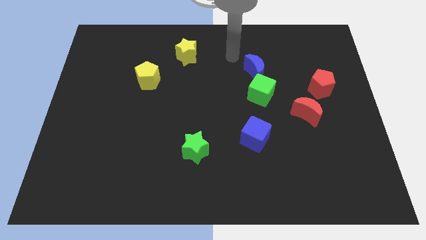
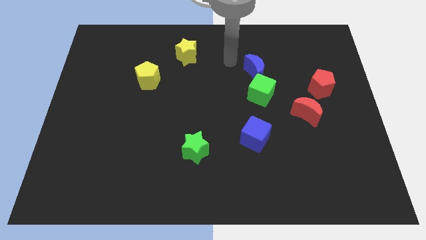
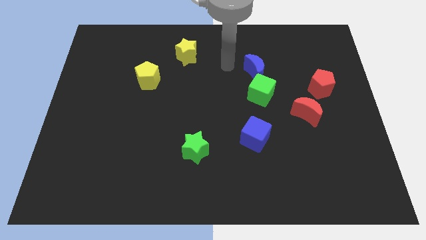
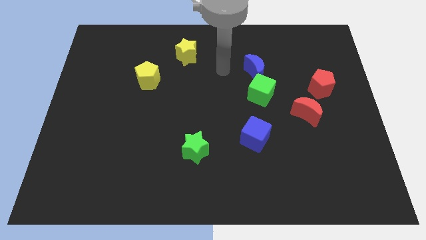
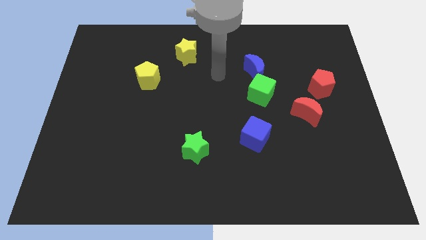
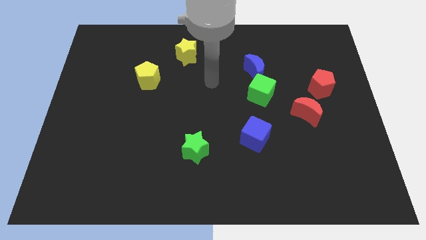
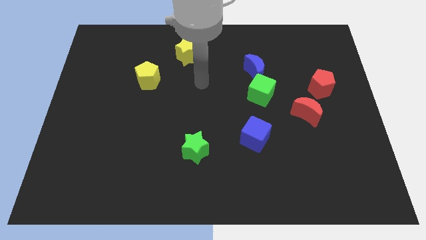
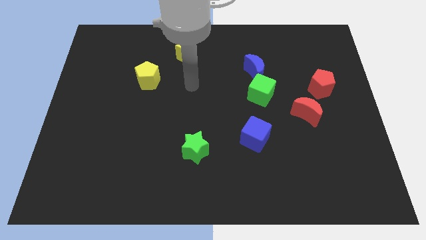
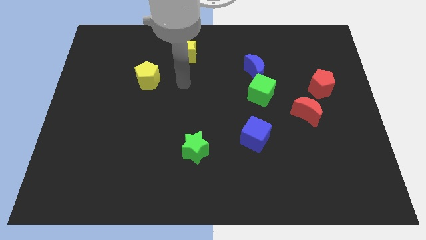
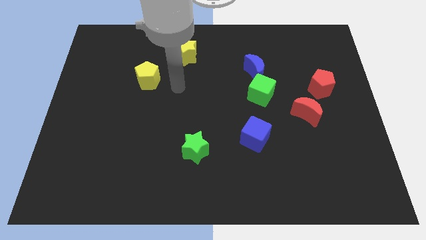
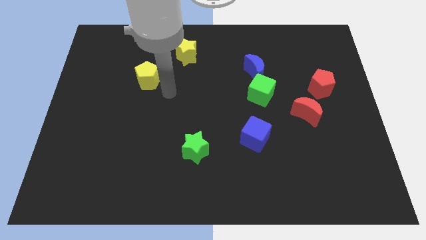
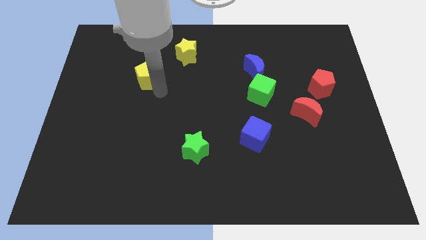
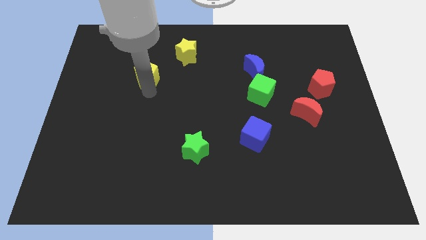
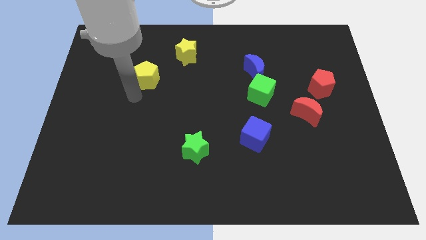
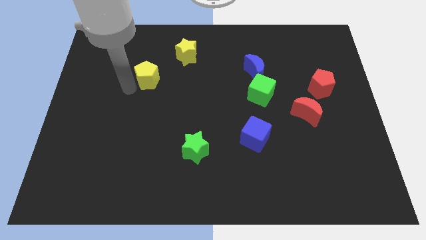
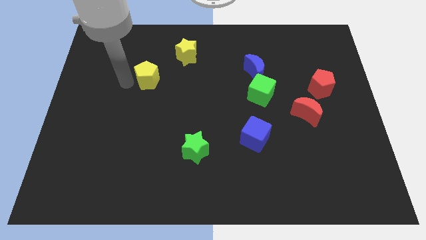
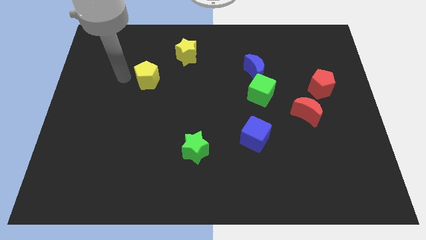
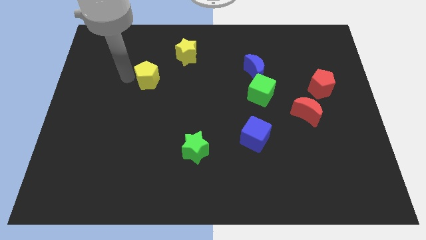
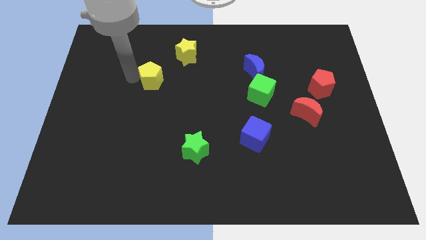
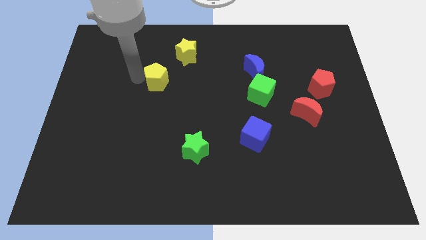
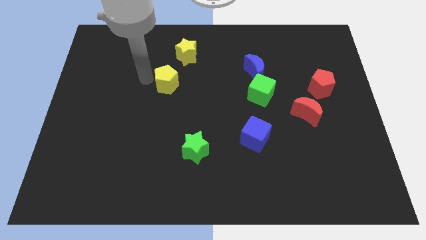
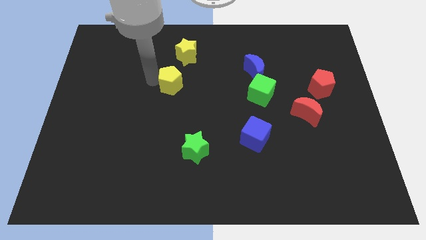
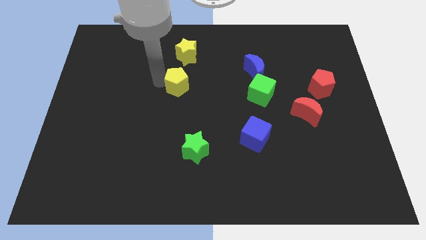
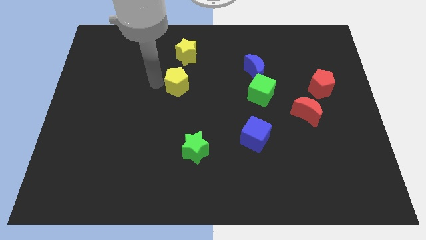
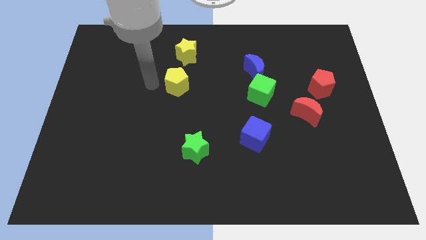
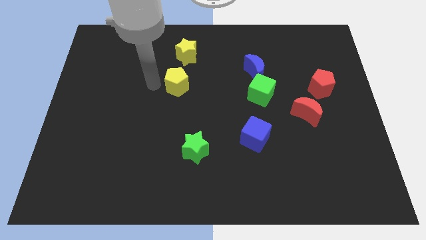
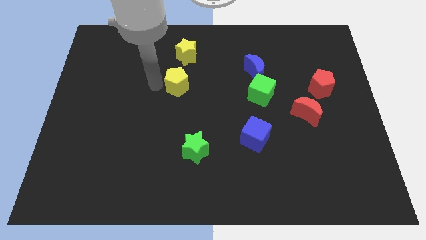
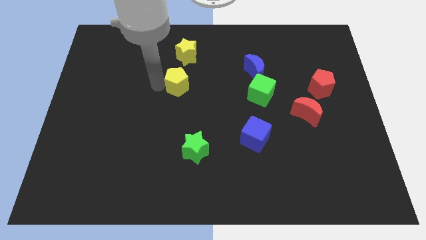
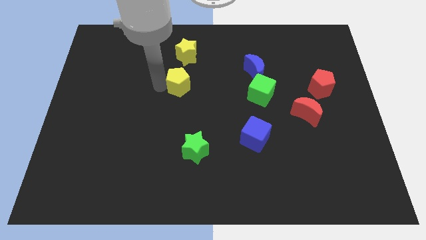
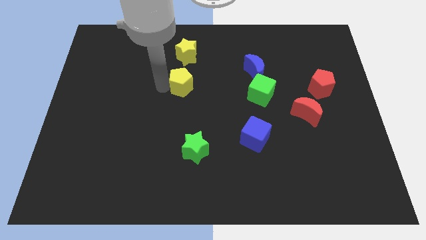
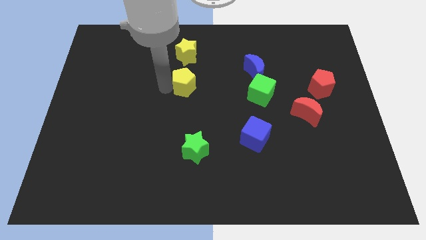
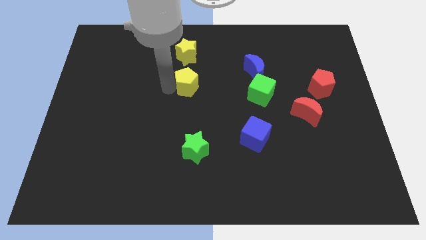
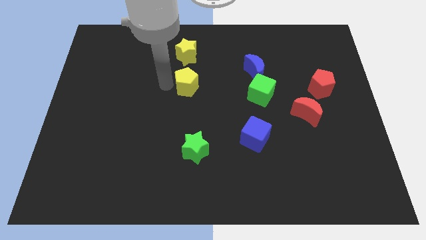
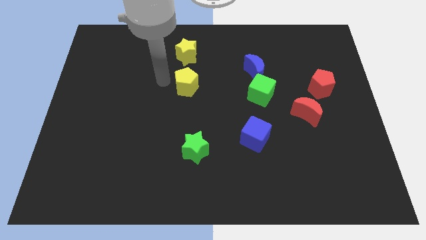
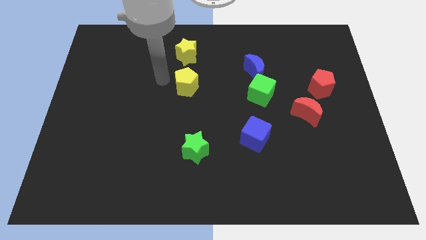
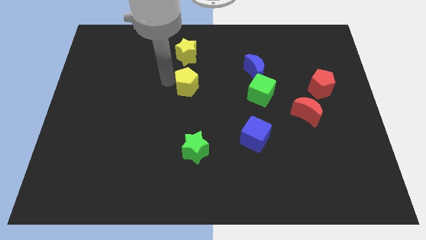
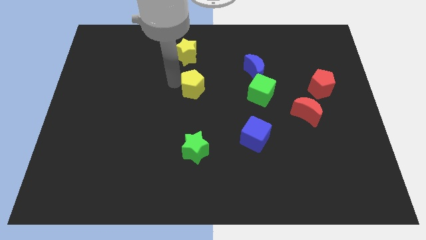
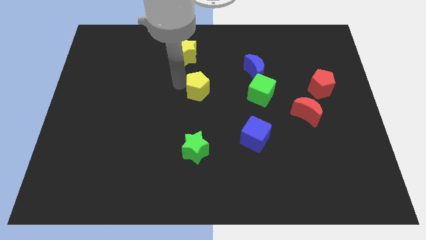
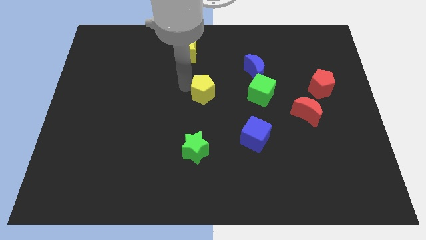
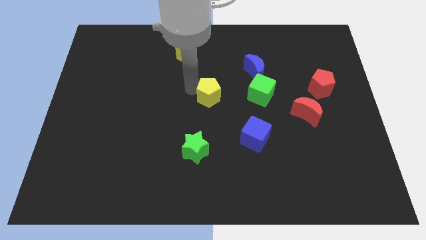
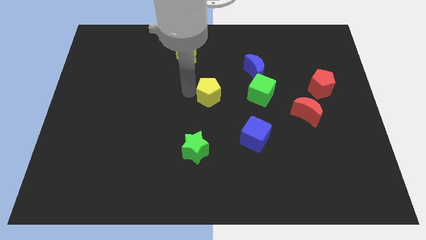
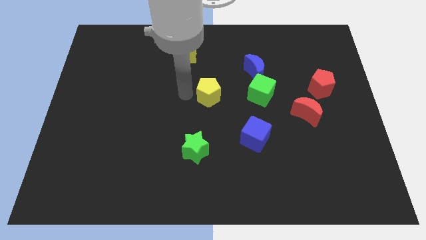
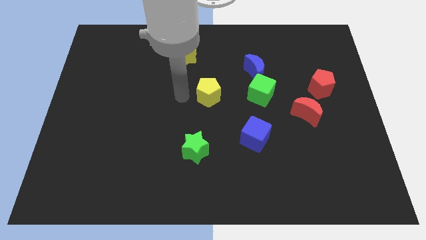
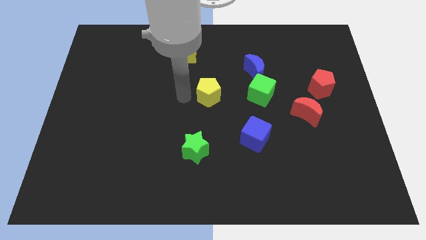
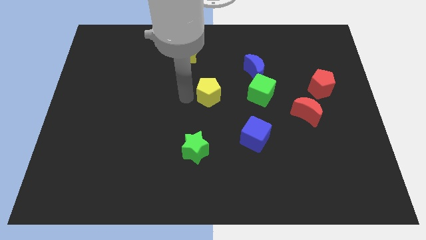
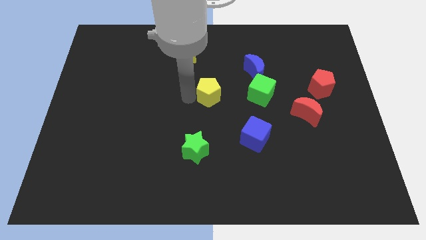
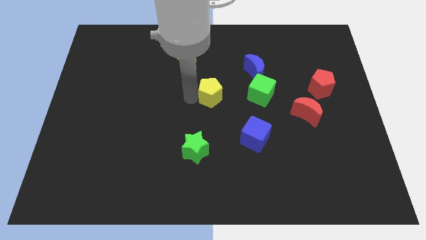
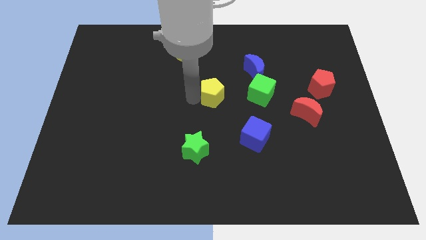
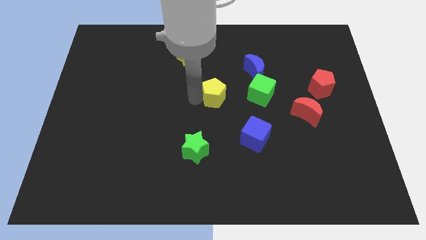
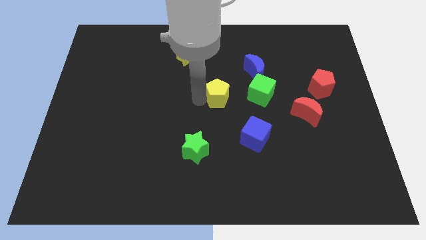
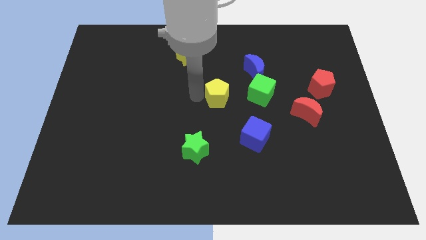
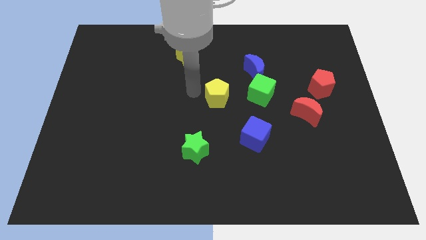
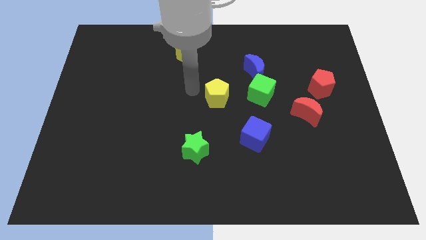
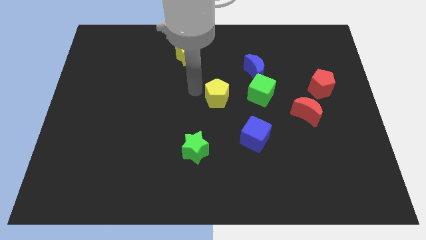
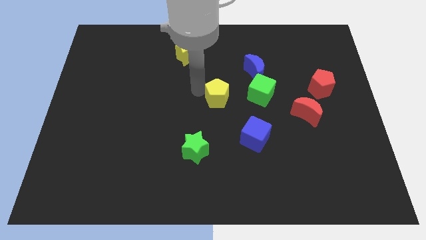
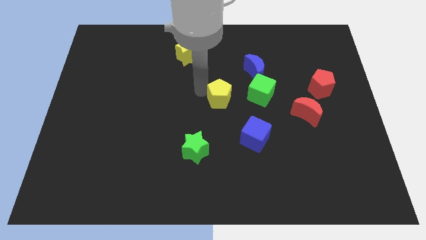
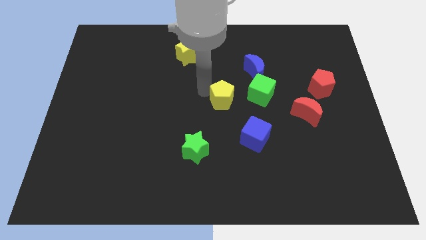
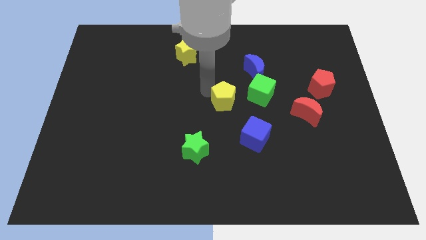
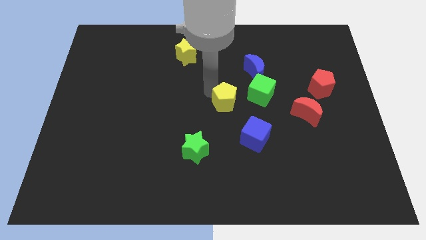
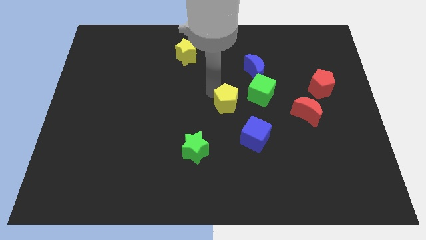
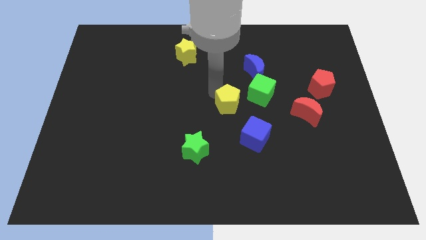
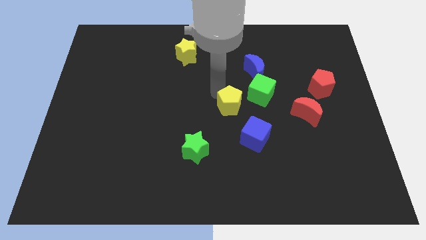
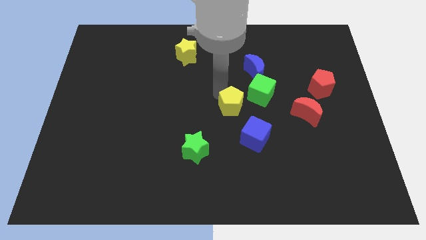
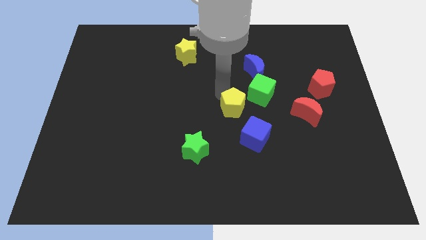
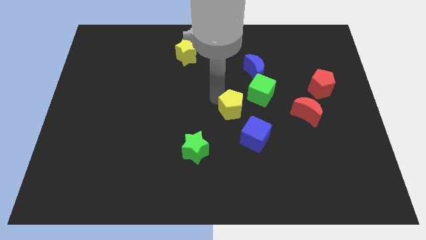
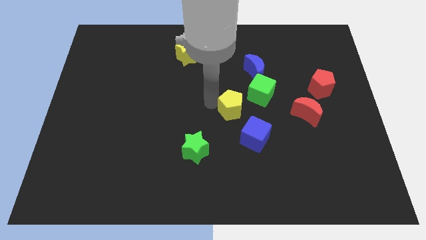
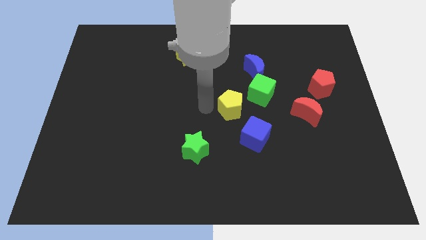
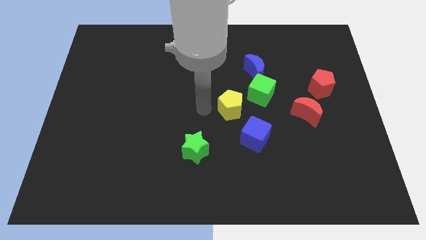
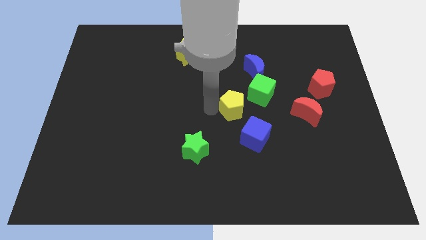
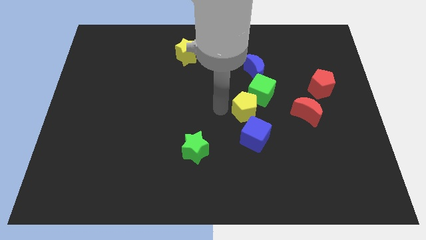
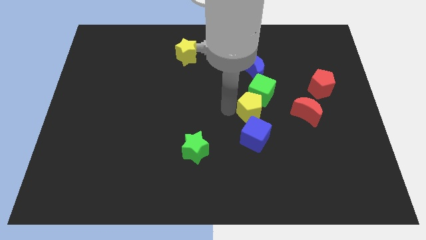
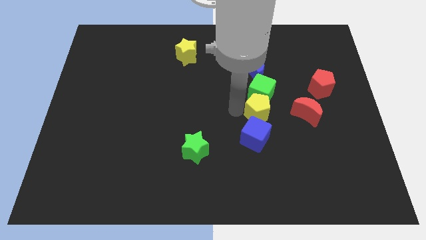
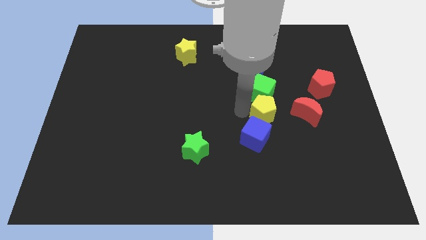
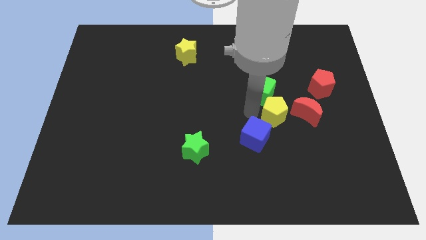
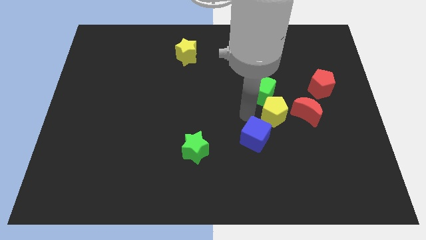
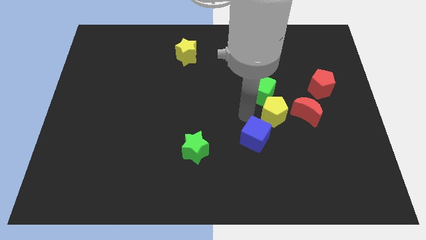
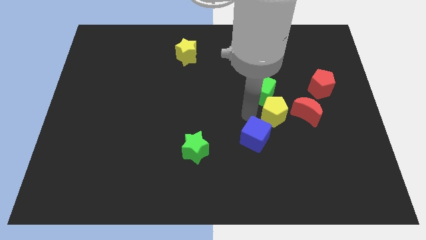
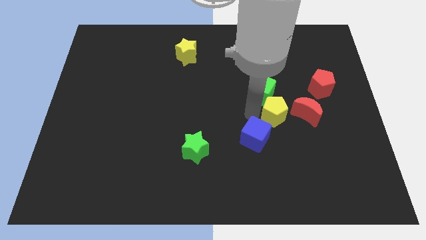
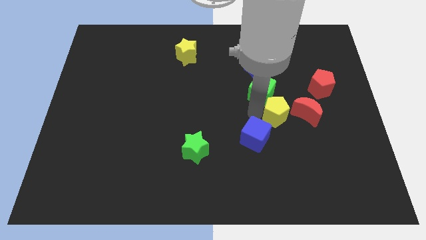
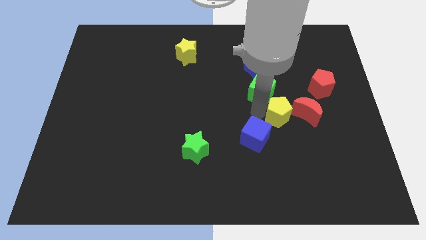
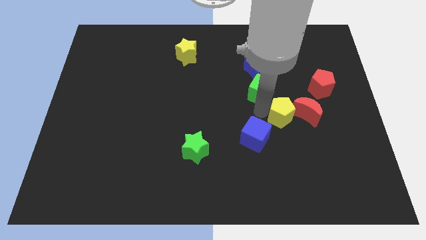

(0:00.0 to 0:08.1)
put the yellow pentagon to the red moon
